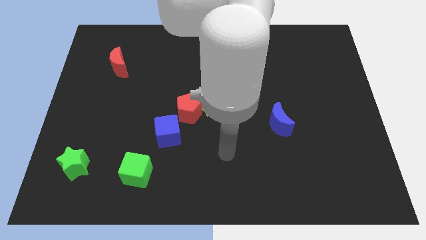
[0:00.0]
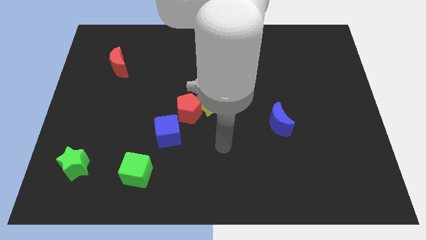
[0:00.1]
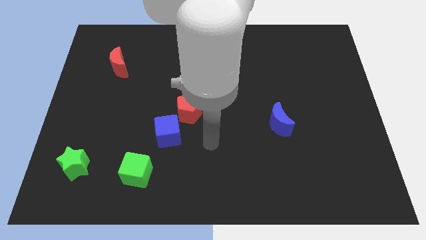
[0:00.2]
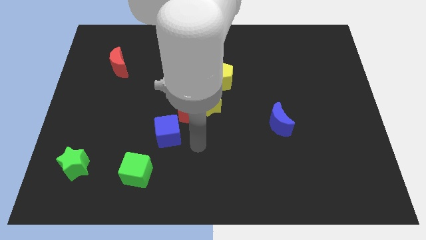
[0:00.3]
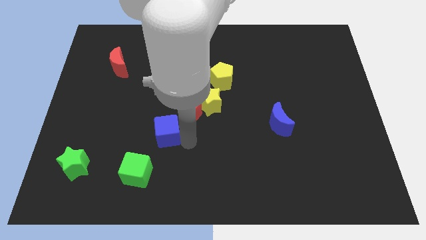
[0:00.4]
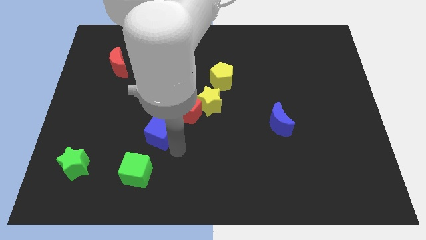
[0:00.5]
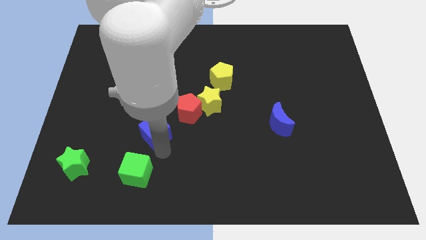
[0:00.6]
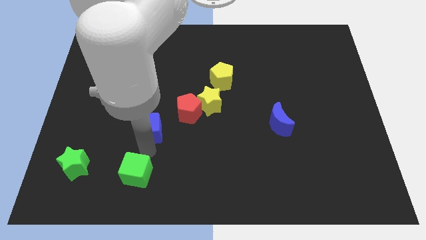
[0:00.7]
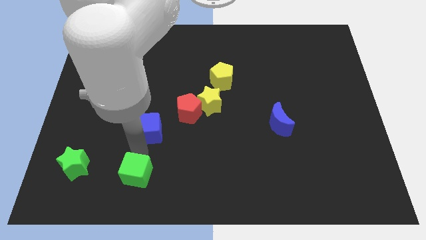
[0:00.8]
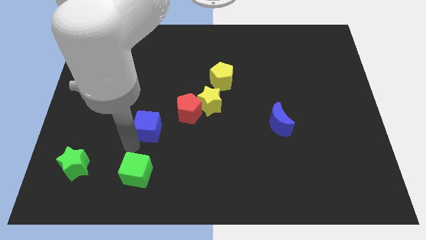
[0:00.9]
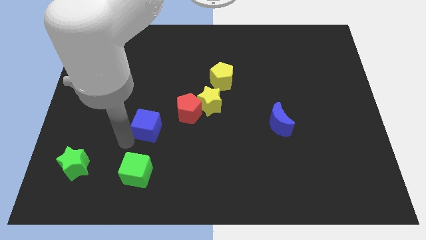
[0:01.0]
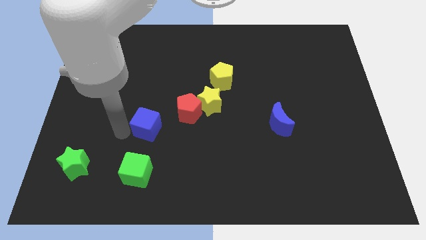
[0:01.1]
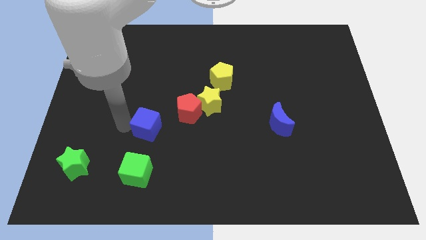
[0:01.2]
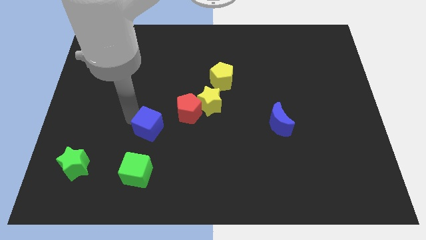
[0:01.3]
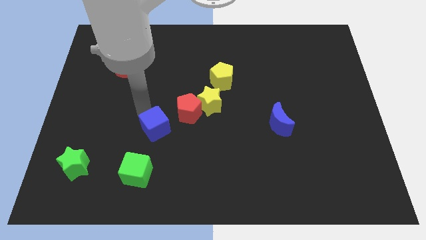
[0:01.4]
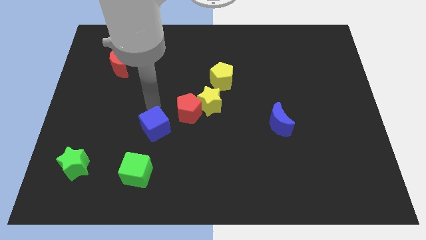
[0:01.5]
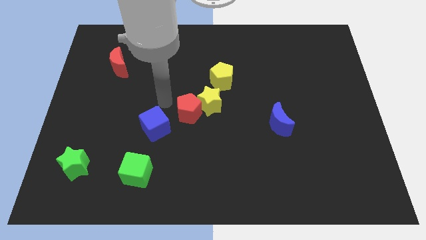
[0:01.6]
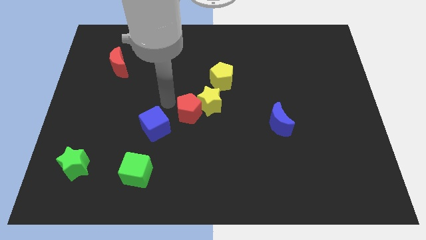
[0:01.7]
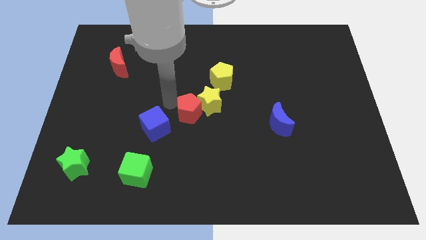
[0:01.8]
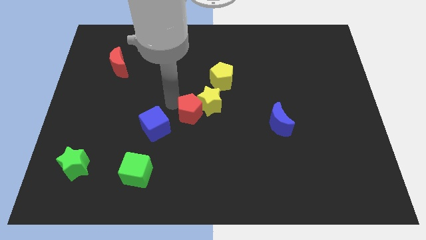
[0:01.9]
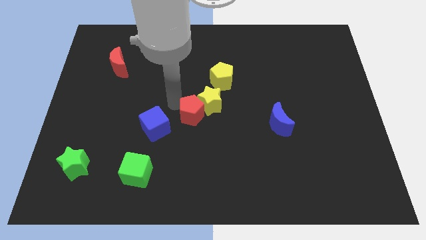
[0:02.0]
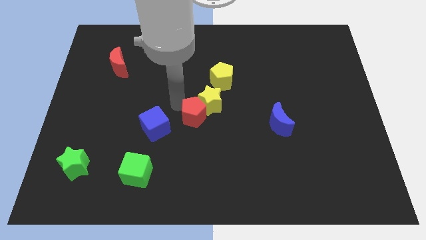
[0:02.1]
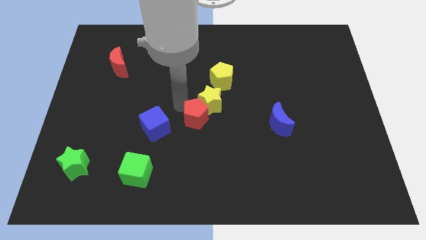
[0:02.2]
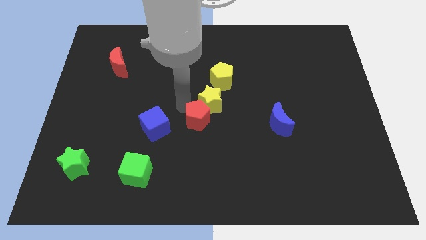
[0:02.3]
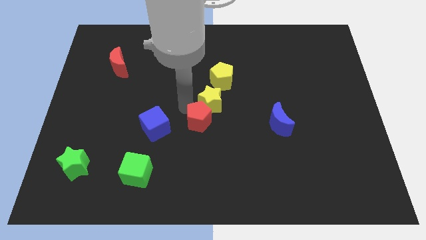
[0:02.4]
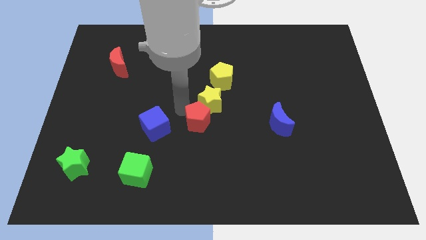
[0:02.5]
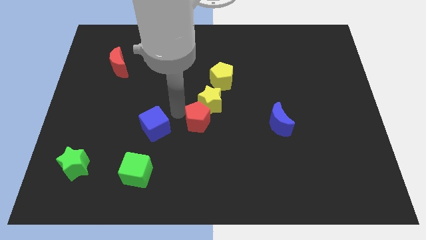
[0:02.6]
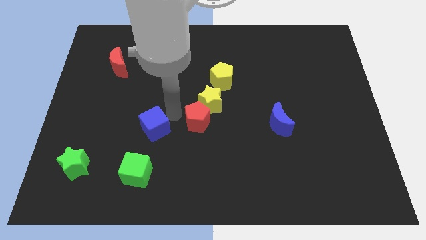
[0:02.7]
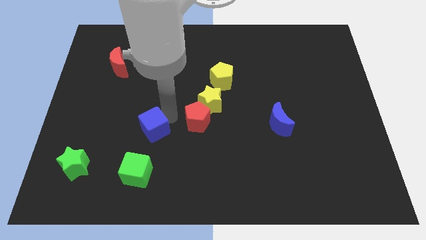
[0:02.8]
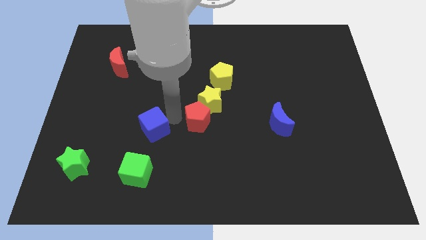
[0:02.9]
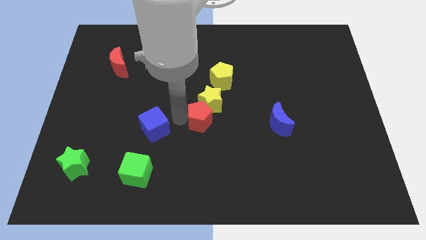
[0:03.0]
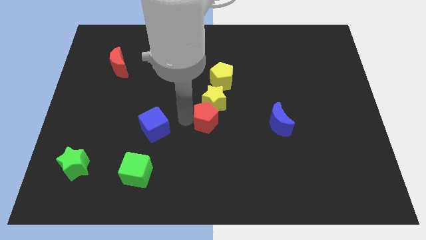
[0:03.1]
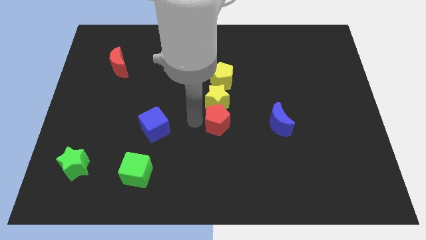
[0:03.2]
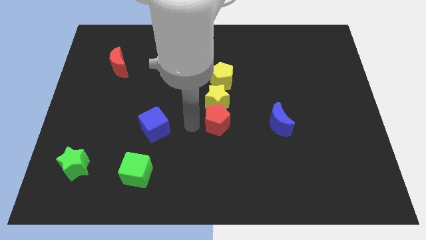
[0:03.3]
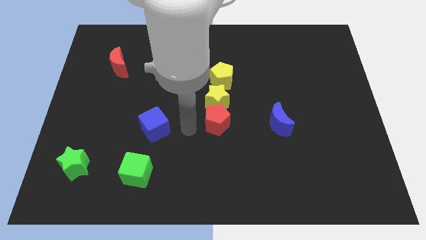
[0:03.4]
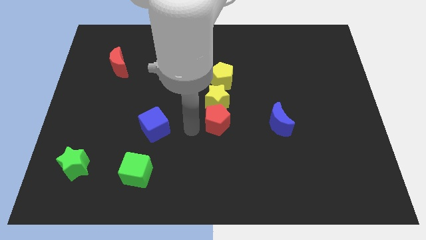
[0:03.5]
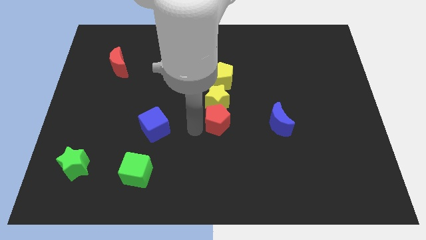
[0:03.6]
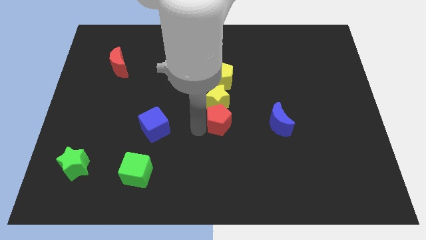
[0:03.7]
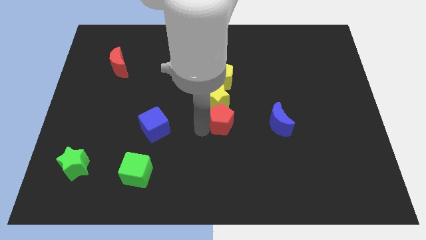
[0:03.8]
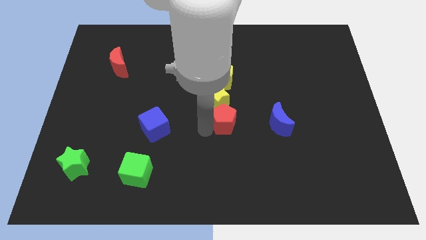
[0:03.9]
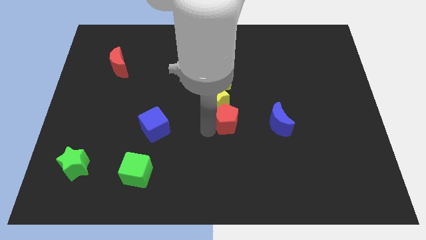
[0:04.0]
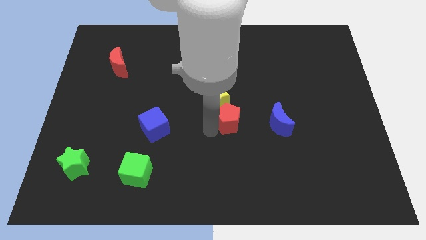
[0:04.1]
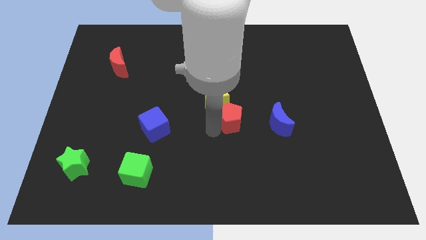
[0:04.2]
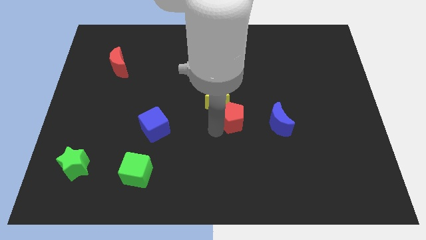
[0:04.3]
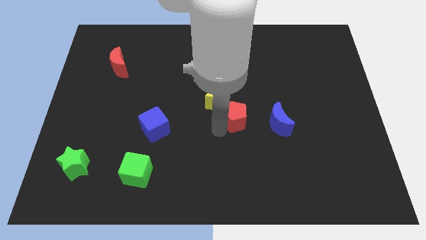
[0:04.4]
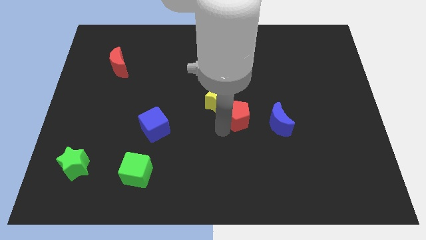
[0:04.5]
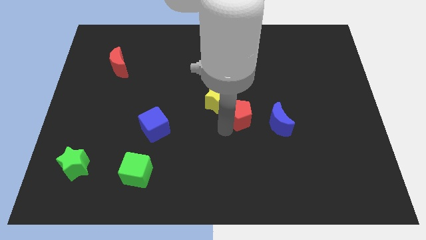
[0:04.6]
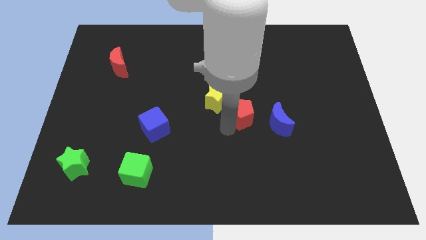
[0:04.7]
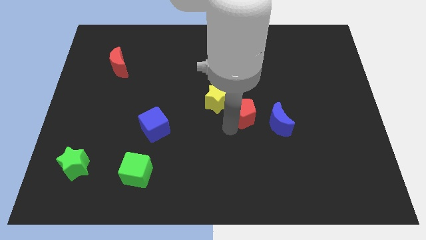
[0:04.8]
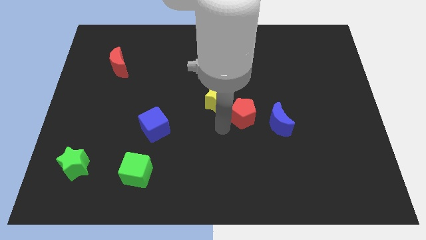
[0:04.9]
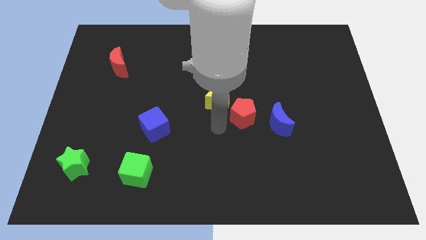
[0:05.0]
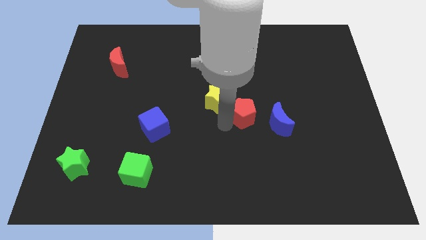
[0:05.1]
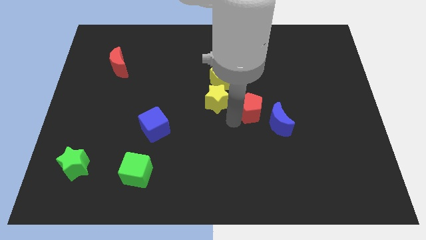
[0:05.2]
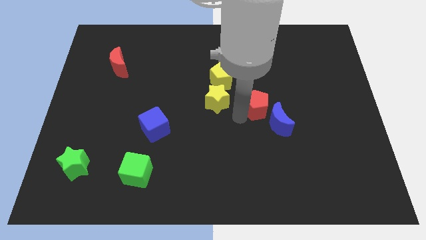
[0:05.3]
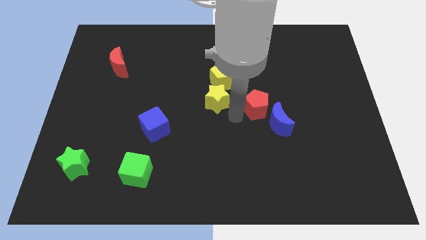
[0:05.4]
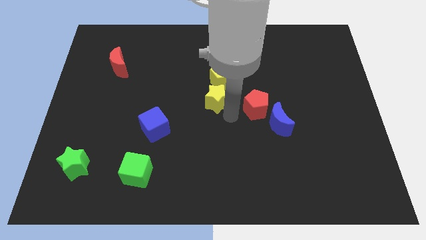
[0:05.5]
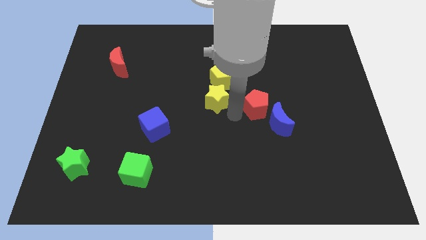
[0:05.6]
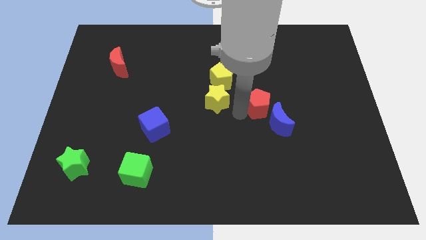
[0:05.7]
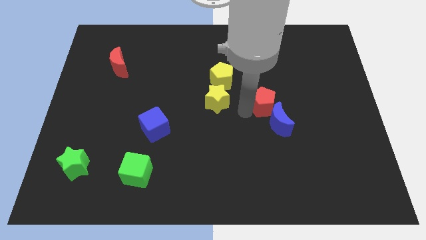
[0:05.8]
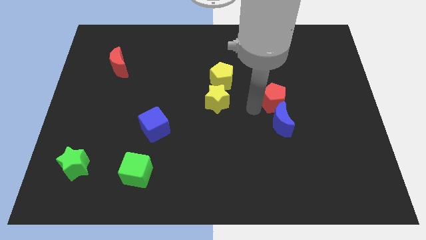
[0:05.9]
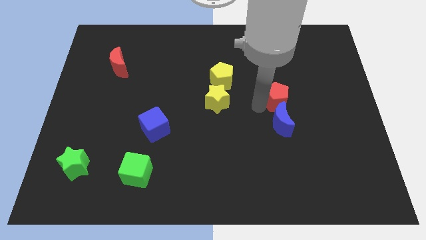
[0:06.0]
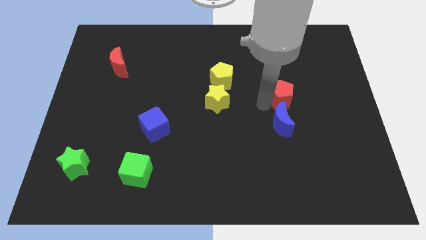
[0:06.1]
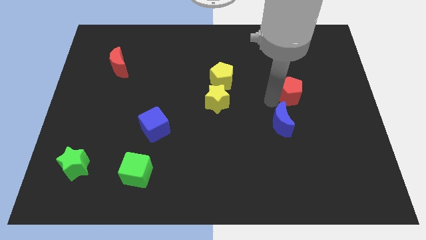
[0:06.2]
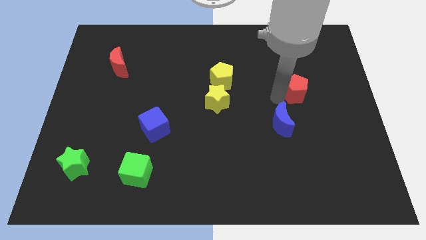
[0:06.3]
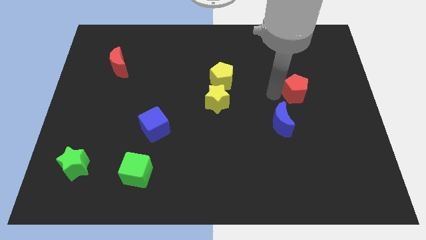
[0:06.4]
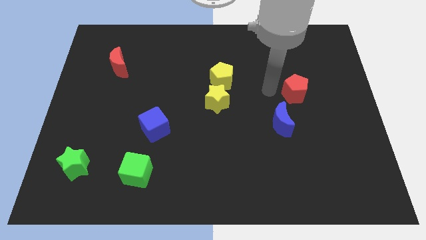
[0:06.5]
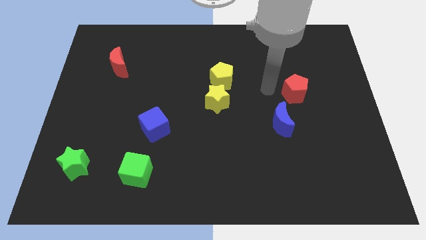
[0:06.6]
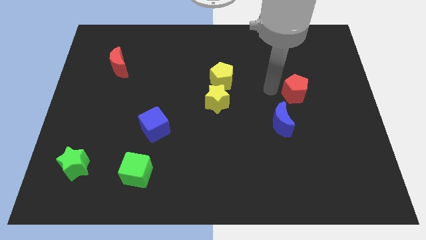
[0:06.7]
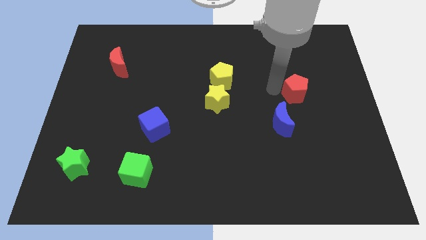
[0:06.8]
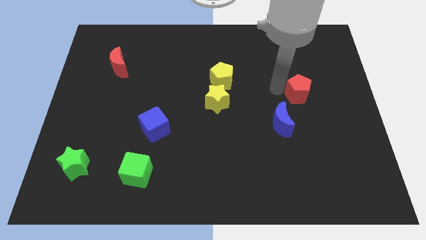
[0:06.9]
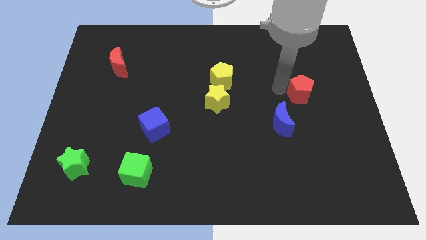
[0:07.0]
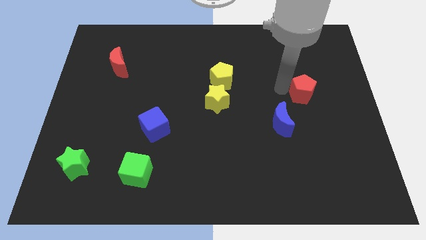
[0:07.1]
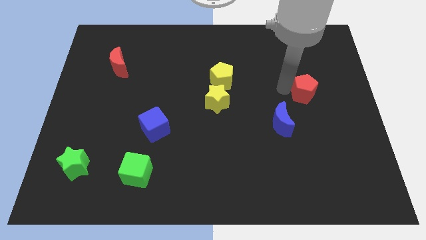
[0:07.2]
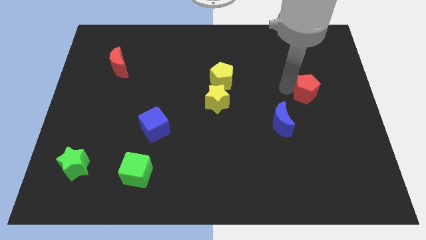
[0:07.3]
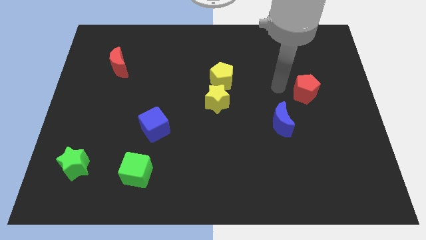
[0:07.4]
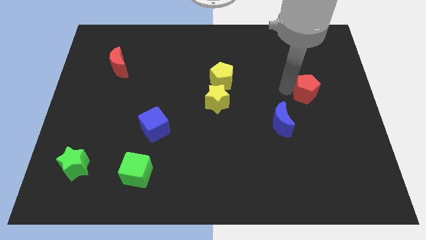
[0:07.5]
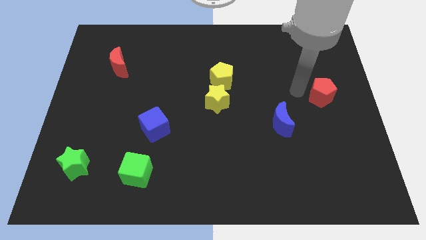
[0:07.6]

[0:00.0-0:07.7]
put the red pentagon to the right side
